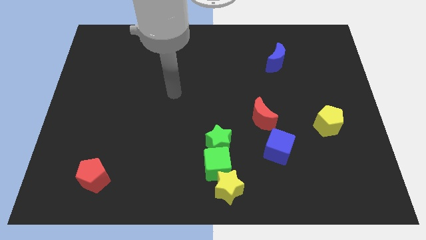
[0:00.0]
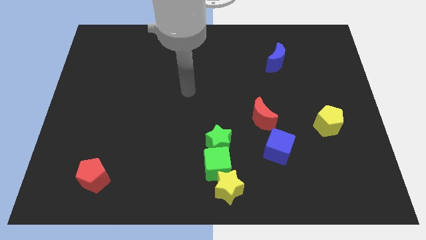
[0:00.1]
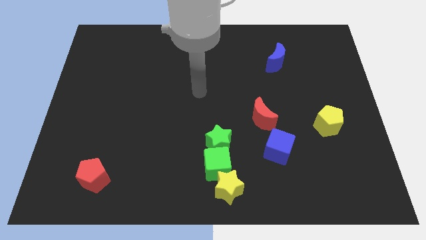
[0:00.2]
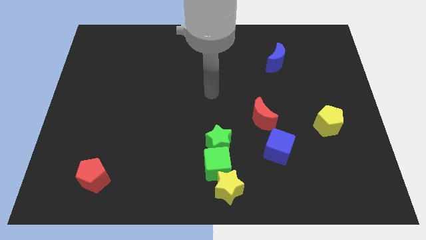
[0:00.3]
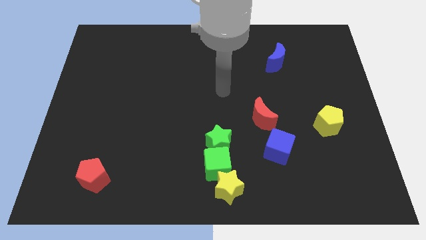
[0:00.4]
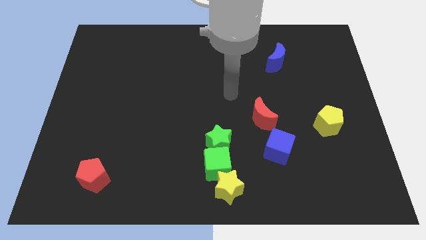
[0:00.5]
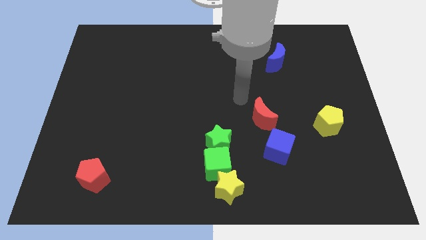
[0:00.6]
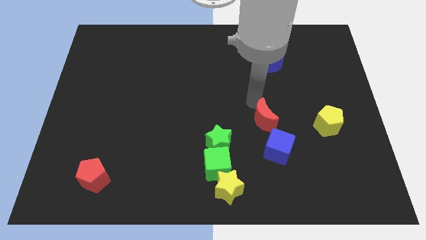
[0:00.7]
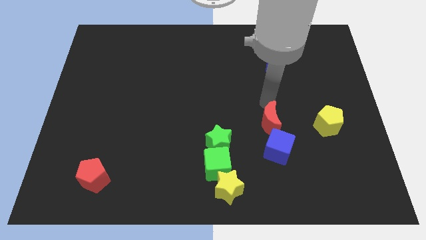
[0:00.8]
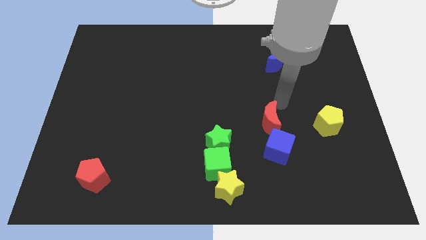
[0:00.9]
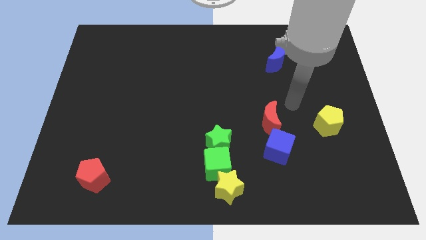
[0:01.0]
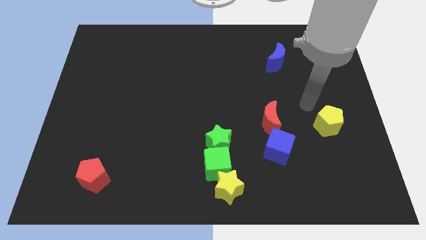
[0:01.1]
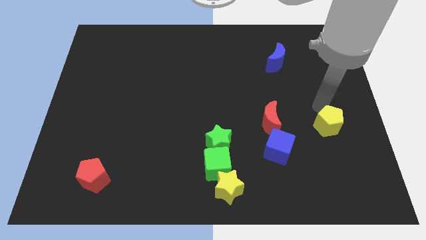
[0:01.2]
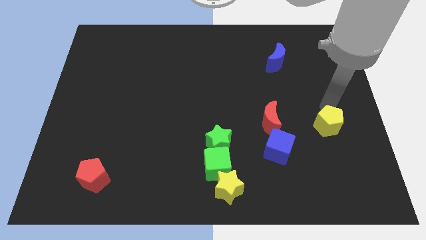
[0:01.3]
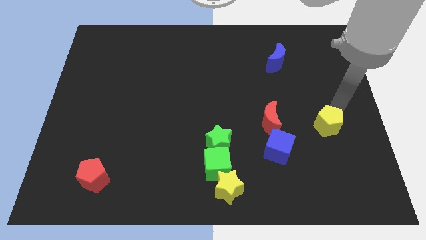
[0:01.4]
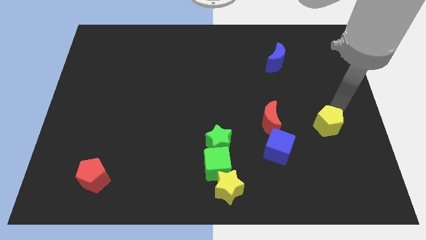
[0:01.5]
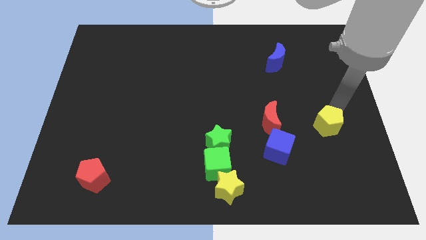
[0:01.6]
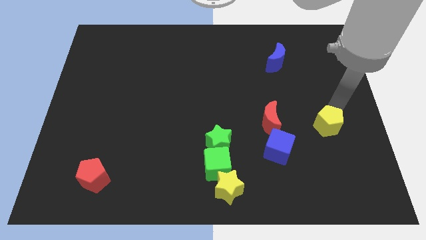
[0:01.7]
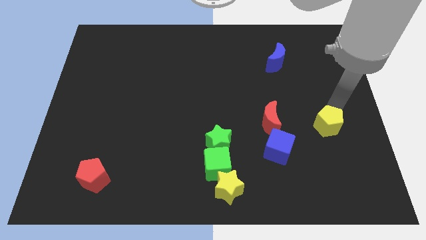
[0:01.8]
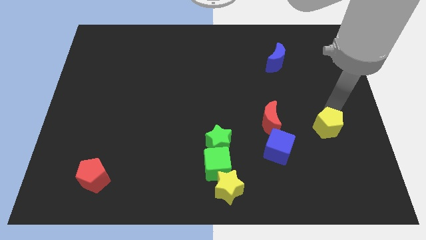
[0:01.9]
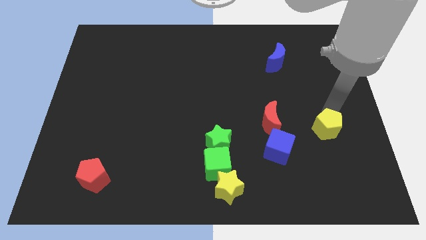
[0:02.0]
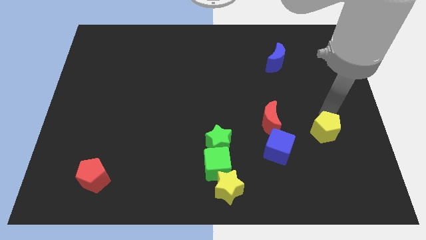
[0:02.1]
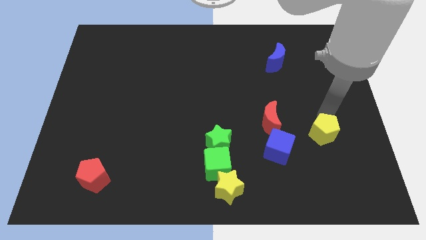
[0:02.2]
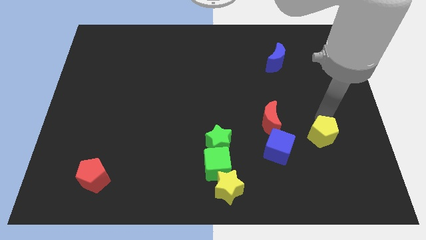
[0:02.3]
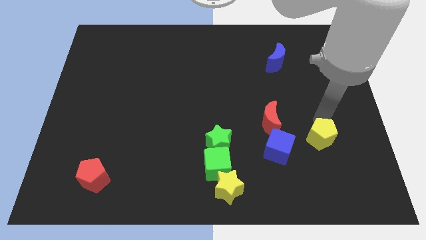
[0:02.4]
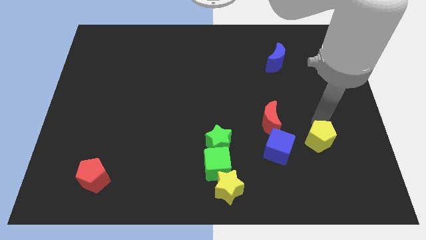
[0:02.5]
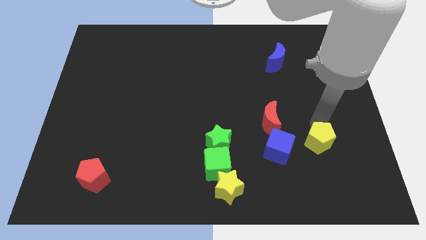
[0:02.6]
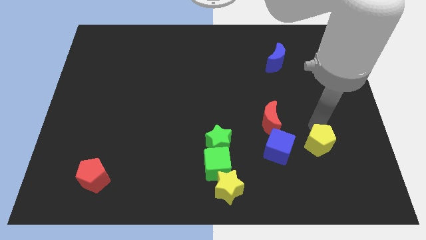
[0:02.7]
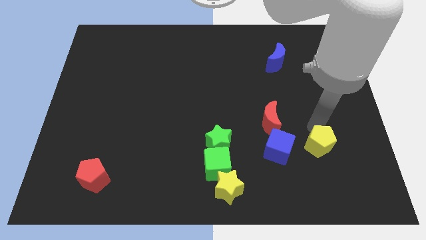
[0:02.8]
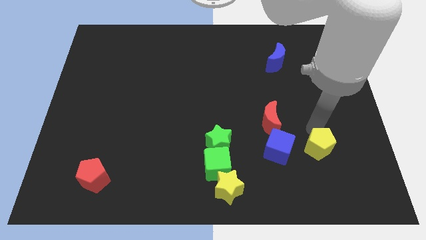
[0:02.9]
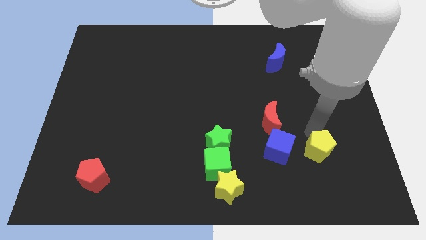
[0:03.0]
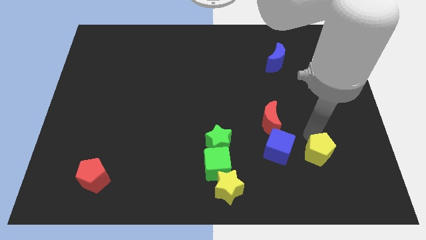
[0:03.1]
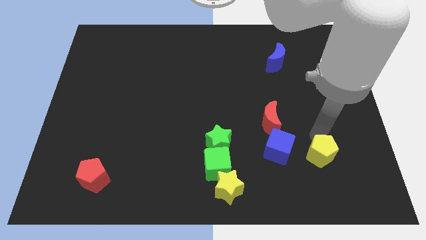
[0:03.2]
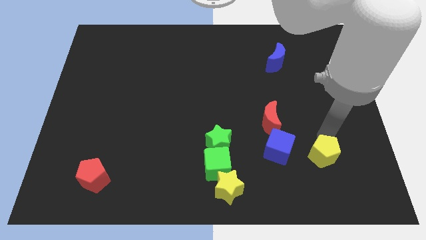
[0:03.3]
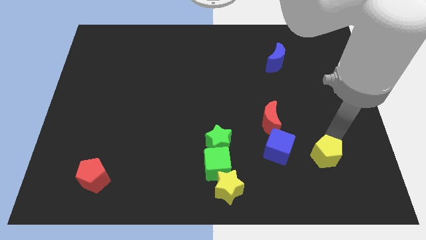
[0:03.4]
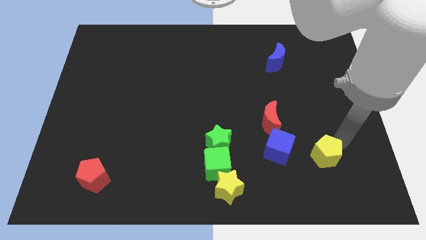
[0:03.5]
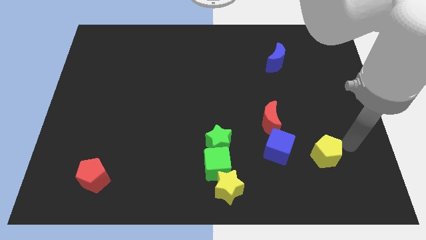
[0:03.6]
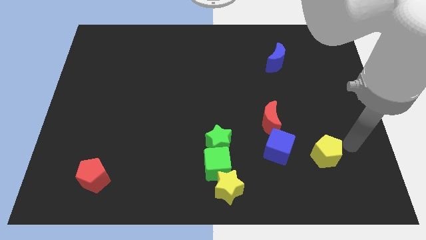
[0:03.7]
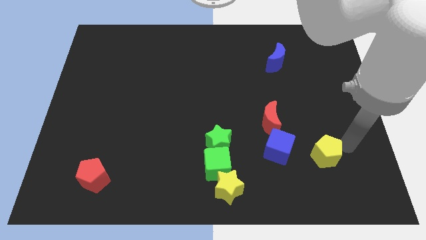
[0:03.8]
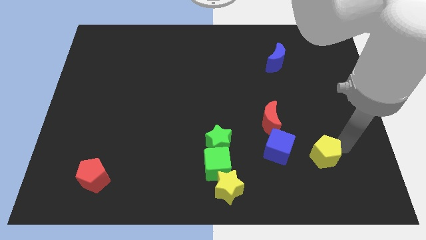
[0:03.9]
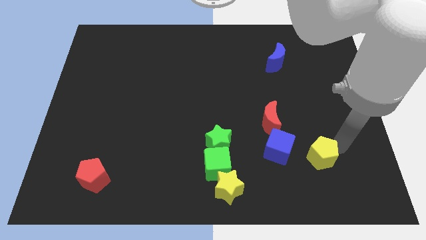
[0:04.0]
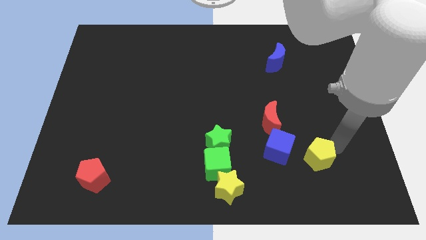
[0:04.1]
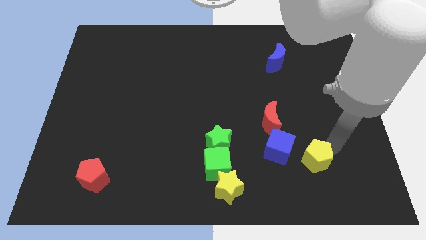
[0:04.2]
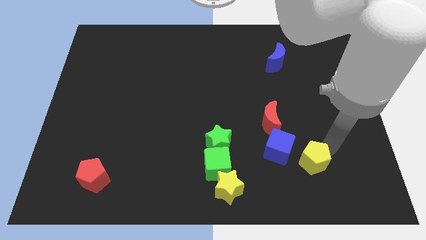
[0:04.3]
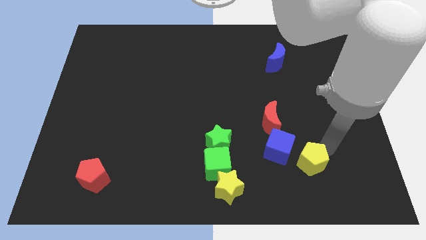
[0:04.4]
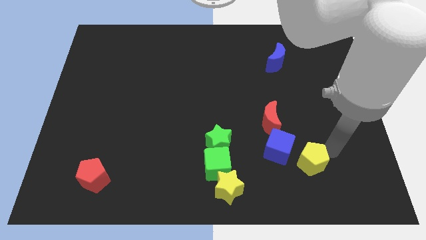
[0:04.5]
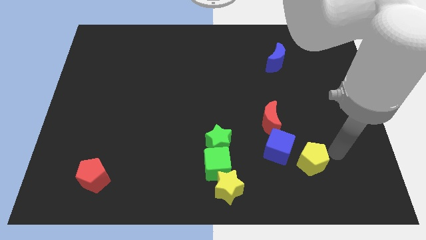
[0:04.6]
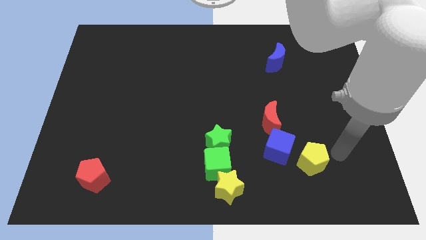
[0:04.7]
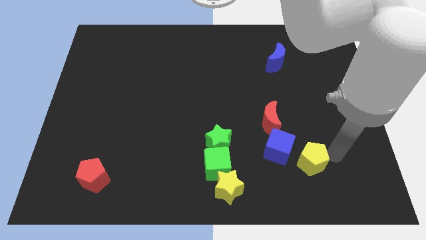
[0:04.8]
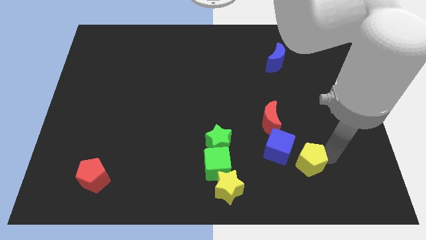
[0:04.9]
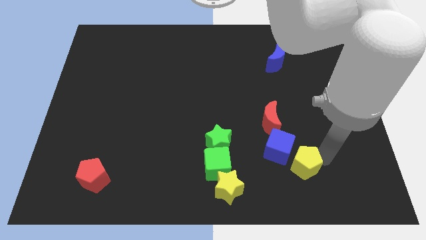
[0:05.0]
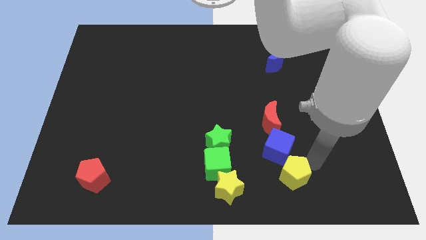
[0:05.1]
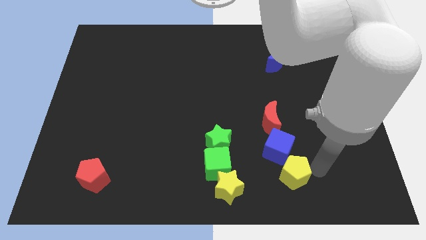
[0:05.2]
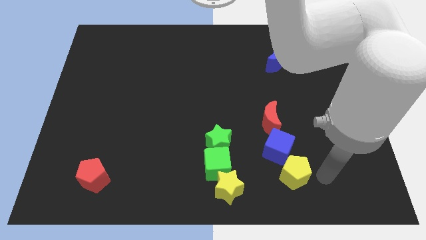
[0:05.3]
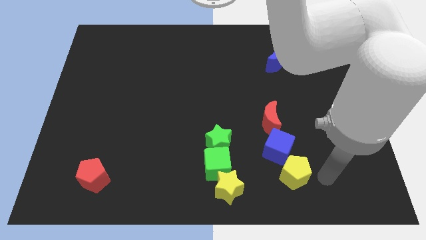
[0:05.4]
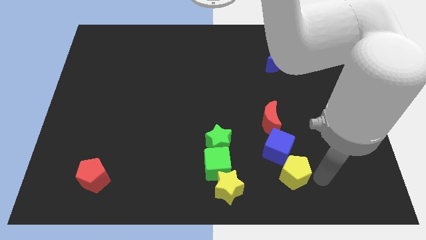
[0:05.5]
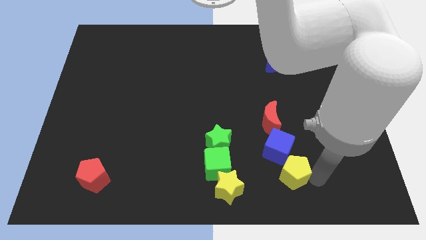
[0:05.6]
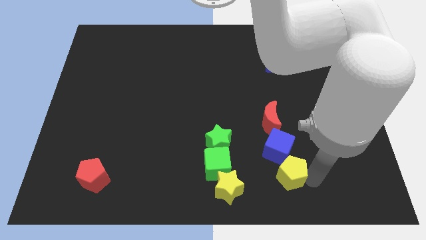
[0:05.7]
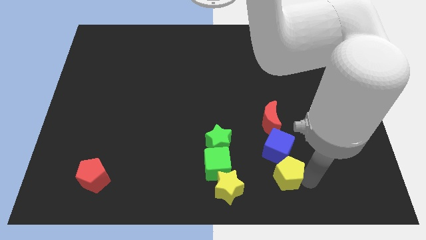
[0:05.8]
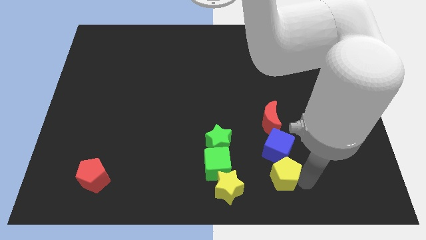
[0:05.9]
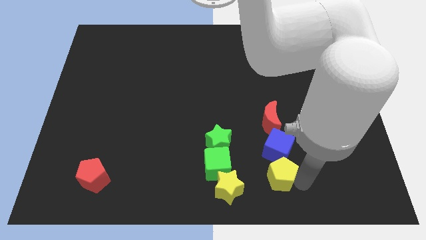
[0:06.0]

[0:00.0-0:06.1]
move the yellow pentagon to the bottom left side of the blue cube

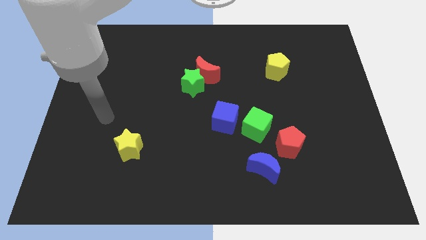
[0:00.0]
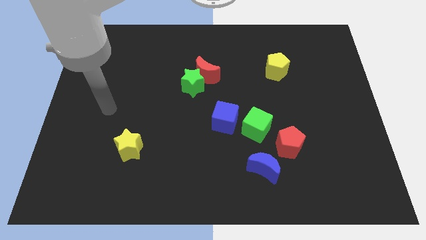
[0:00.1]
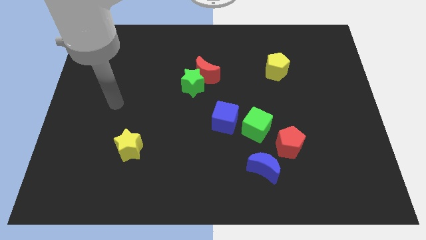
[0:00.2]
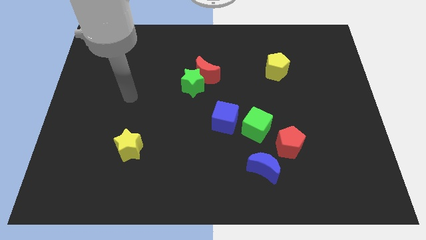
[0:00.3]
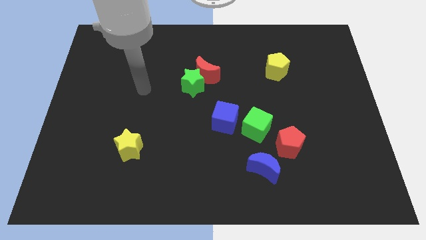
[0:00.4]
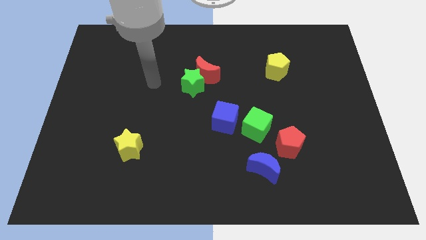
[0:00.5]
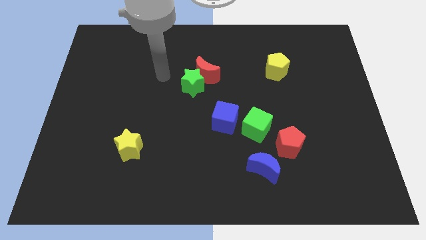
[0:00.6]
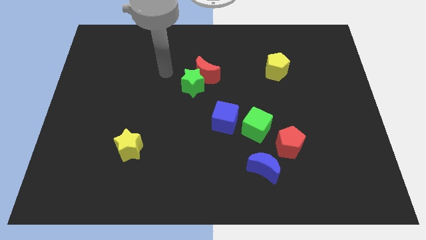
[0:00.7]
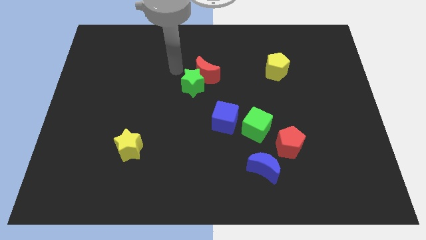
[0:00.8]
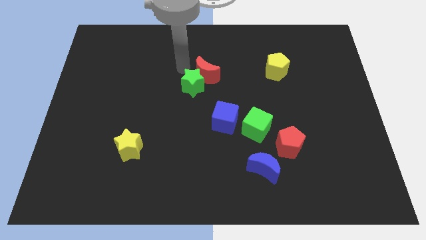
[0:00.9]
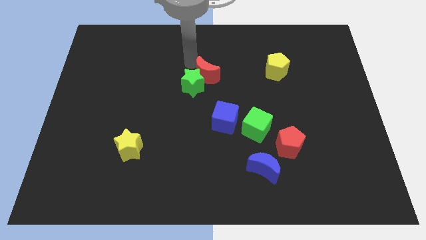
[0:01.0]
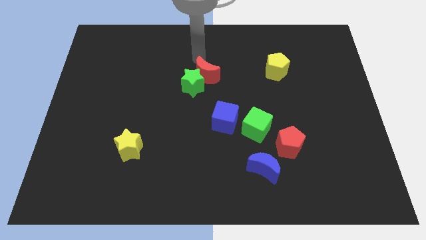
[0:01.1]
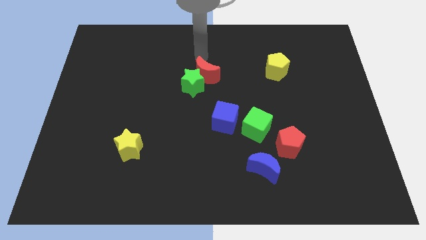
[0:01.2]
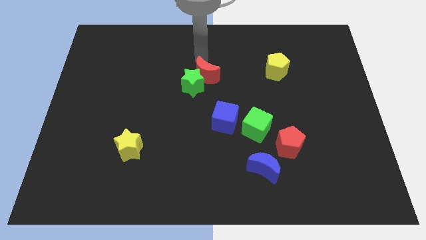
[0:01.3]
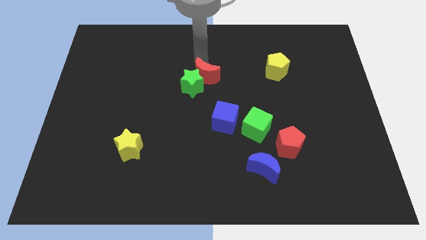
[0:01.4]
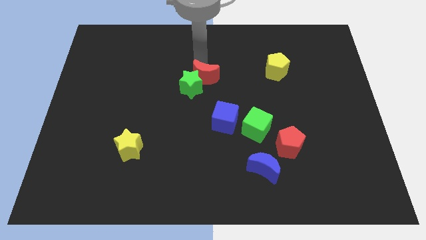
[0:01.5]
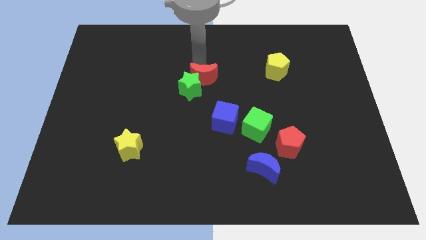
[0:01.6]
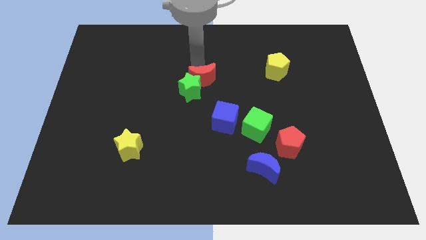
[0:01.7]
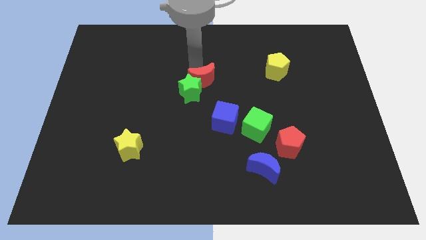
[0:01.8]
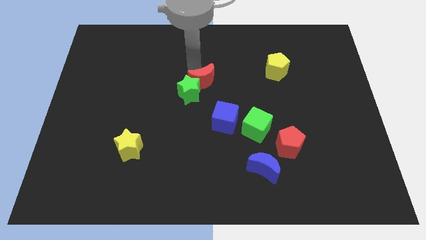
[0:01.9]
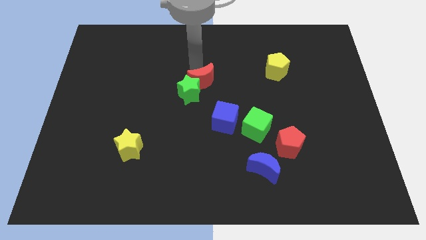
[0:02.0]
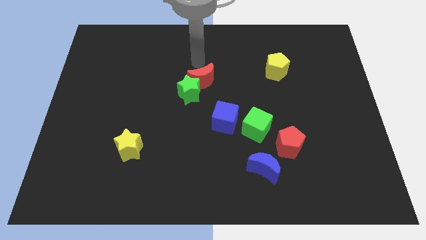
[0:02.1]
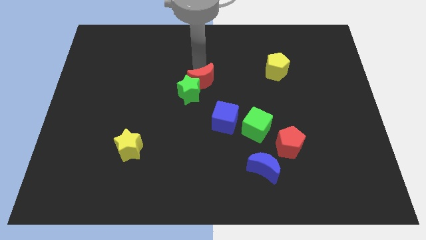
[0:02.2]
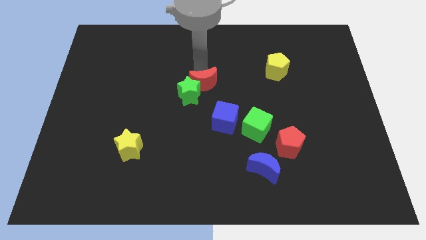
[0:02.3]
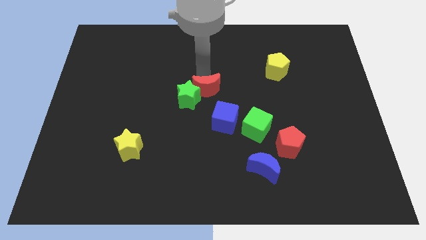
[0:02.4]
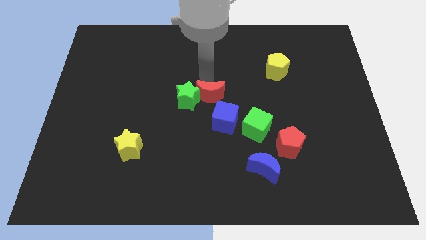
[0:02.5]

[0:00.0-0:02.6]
move the red moon to the bottom right of the green star

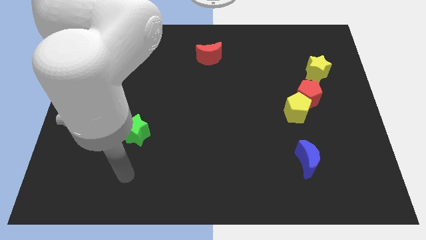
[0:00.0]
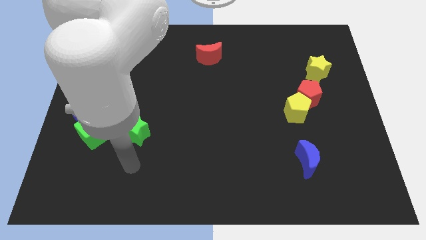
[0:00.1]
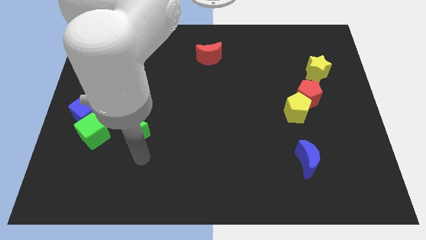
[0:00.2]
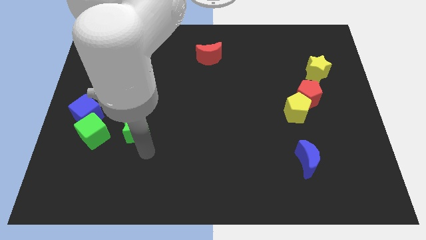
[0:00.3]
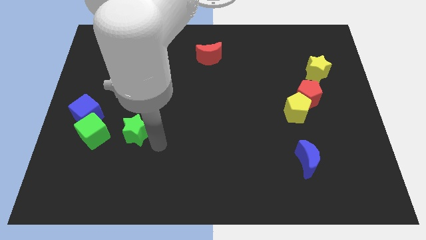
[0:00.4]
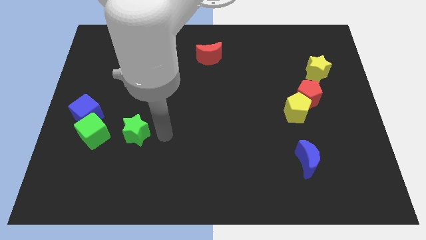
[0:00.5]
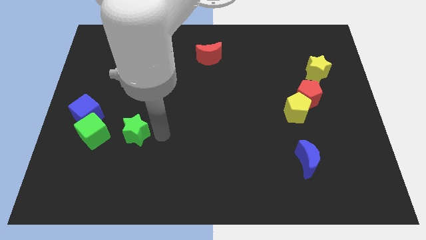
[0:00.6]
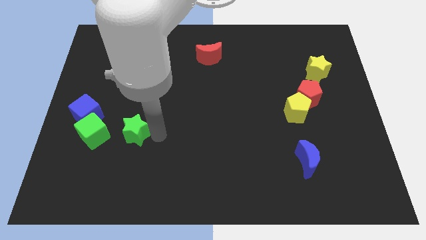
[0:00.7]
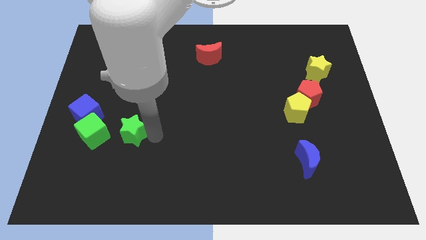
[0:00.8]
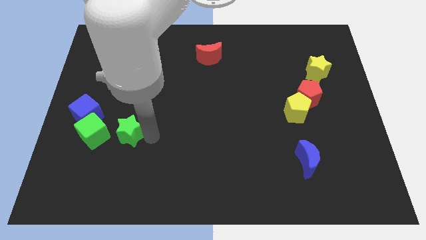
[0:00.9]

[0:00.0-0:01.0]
push the green star diagonally down and to the right of the blue cube
